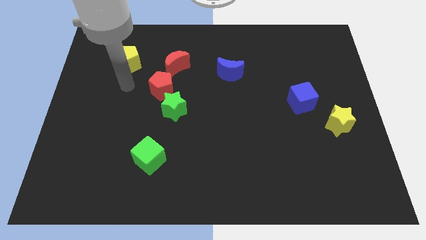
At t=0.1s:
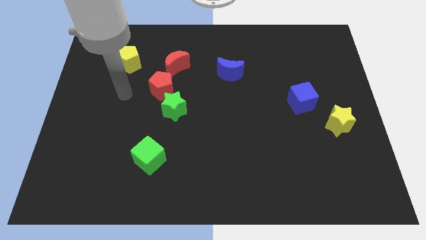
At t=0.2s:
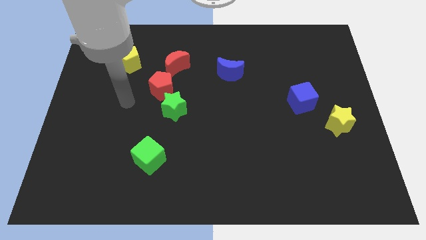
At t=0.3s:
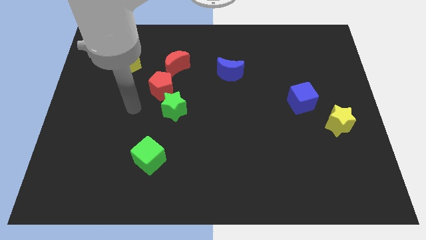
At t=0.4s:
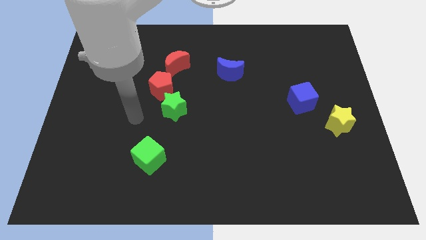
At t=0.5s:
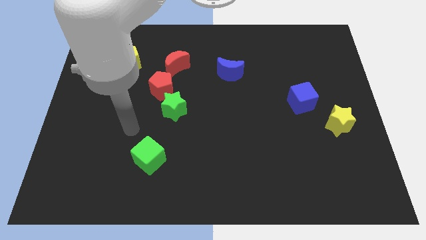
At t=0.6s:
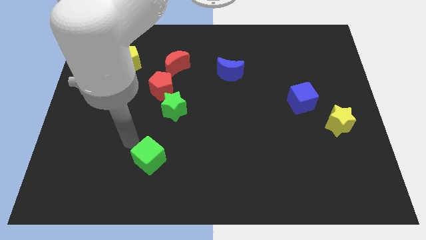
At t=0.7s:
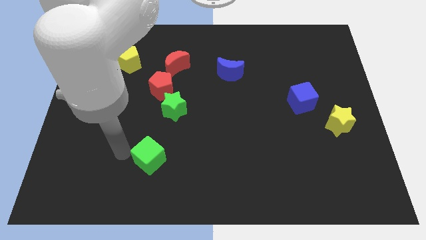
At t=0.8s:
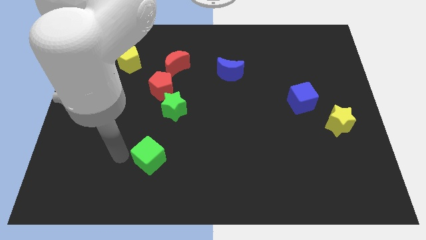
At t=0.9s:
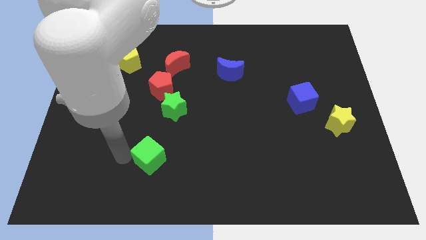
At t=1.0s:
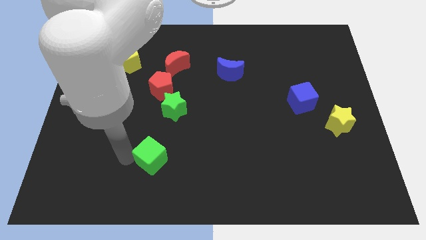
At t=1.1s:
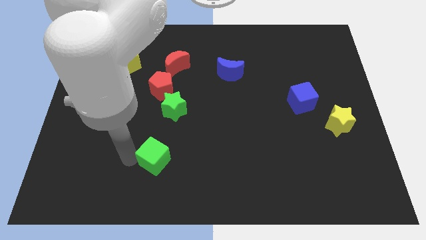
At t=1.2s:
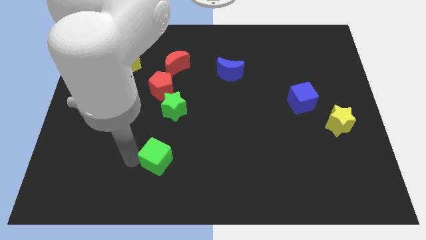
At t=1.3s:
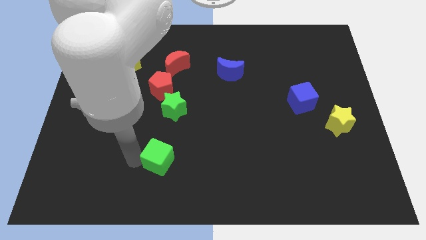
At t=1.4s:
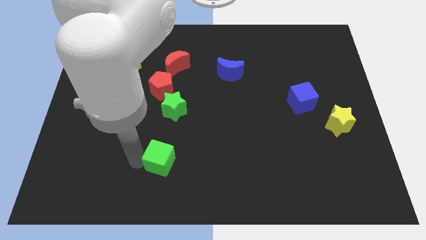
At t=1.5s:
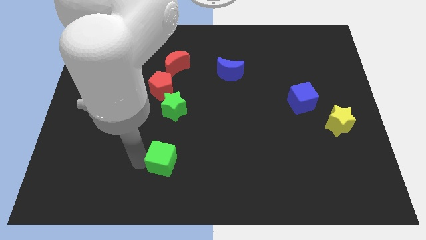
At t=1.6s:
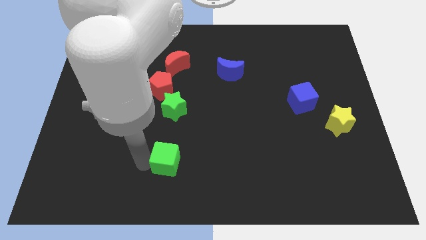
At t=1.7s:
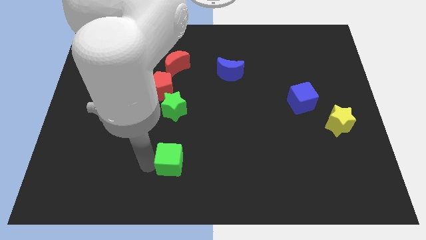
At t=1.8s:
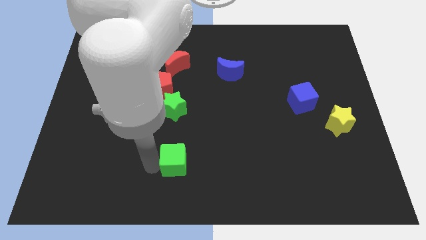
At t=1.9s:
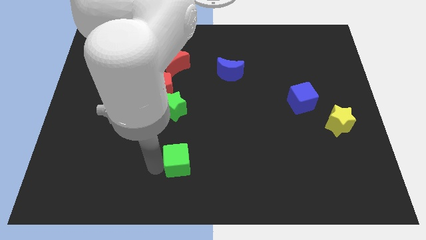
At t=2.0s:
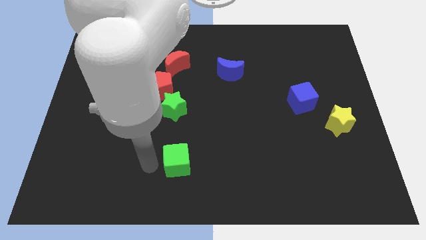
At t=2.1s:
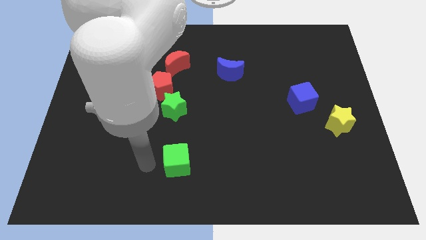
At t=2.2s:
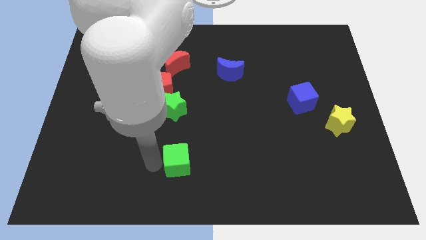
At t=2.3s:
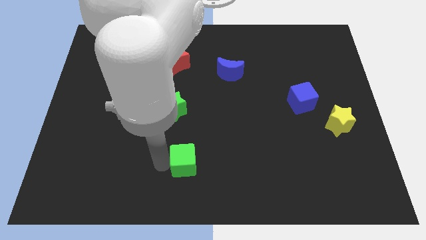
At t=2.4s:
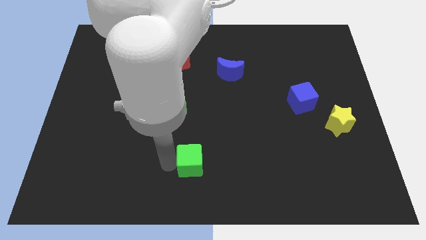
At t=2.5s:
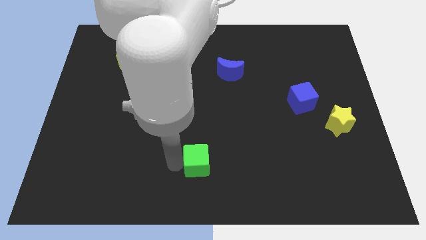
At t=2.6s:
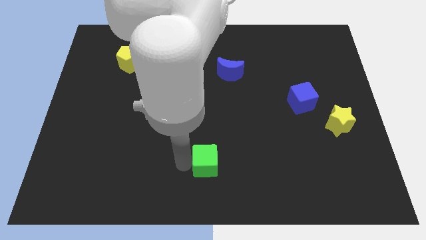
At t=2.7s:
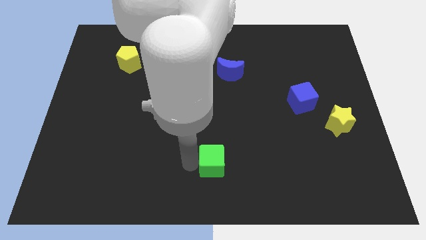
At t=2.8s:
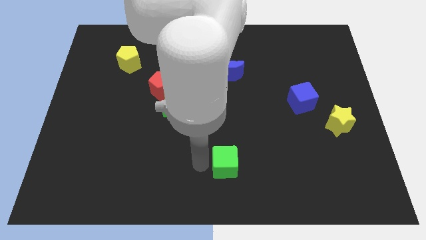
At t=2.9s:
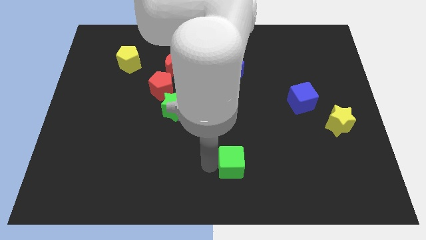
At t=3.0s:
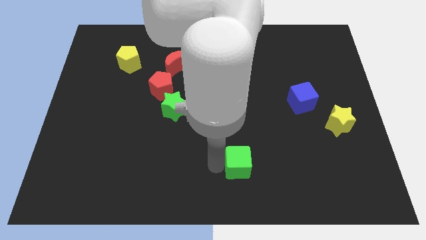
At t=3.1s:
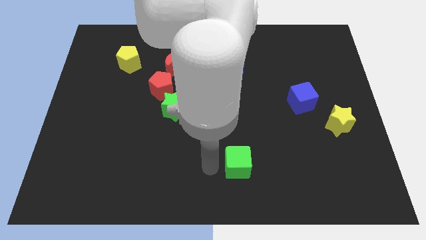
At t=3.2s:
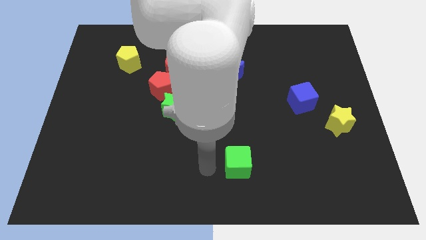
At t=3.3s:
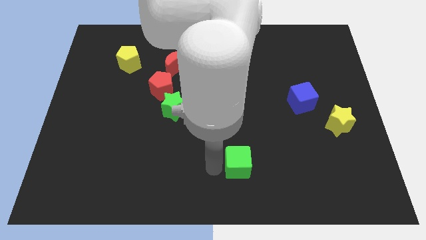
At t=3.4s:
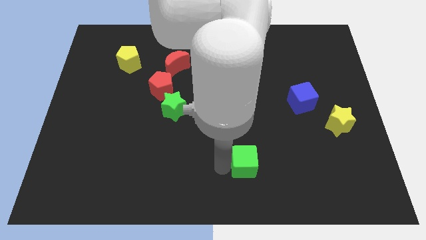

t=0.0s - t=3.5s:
move the green cube right

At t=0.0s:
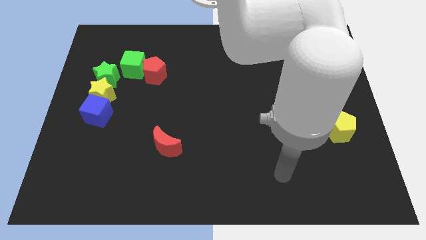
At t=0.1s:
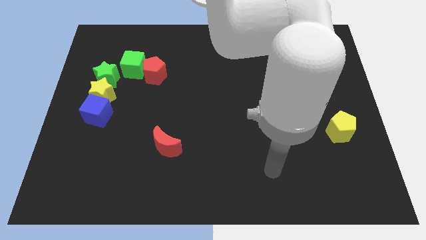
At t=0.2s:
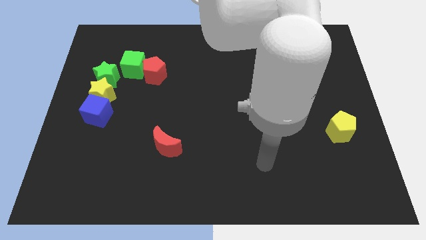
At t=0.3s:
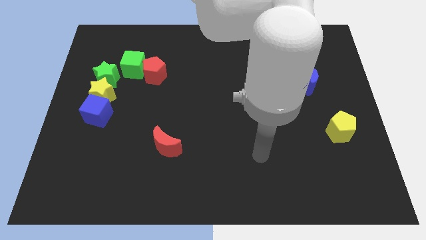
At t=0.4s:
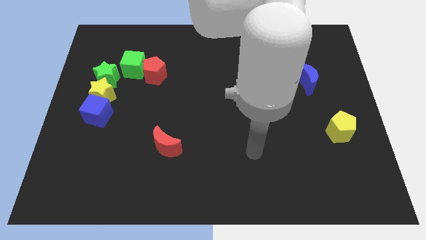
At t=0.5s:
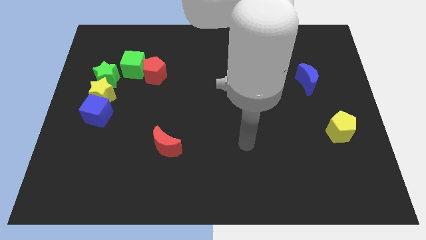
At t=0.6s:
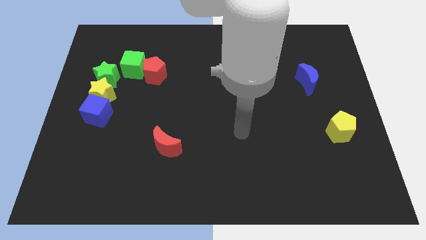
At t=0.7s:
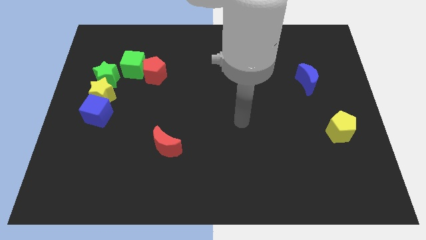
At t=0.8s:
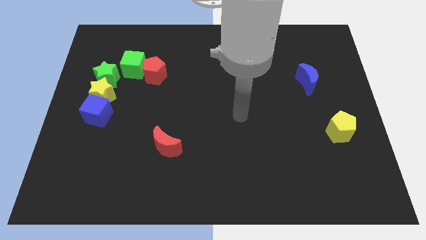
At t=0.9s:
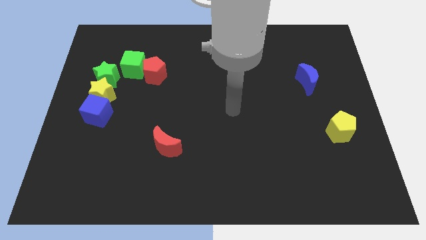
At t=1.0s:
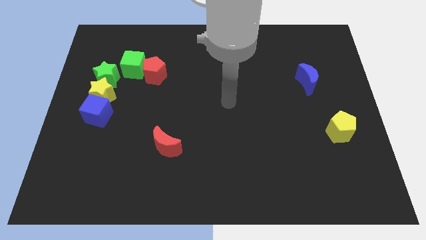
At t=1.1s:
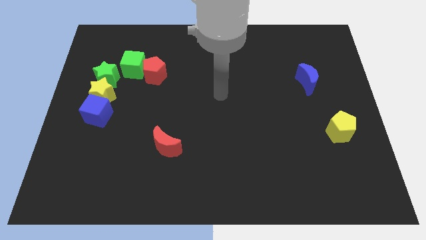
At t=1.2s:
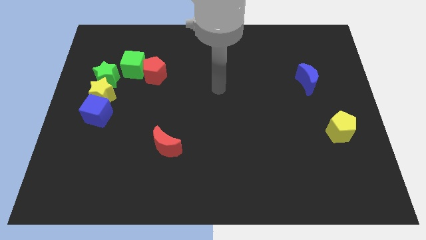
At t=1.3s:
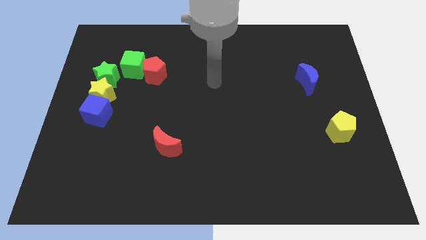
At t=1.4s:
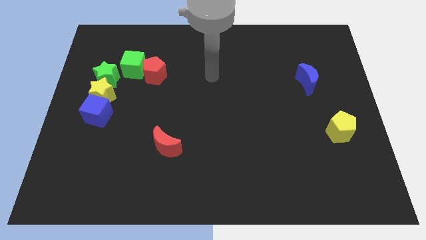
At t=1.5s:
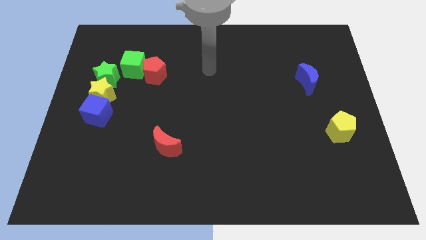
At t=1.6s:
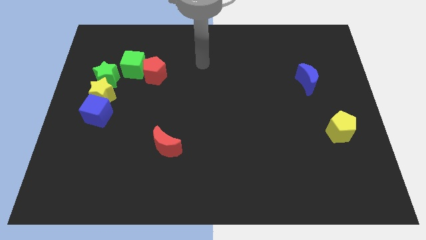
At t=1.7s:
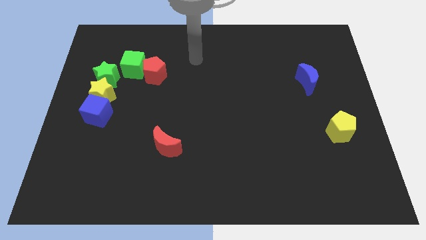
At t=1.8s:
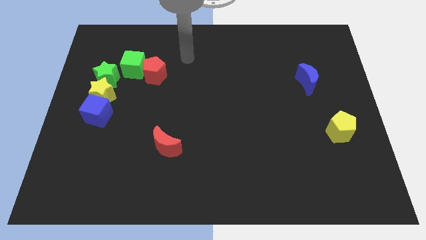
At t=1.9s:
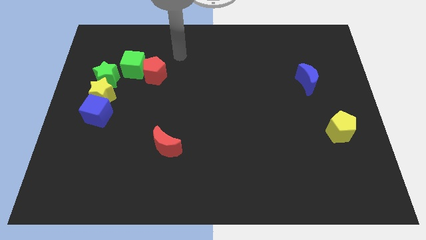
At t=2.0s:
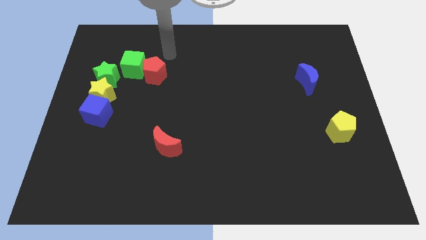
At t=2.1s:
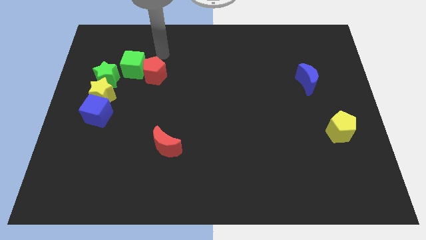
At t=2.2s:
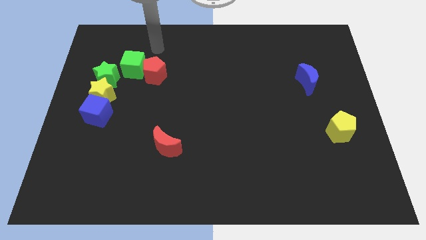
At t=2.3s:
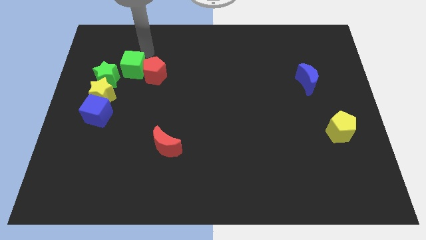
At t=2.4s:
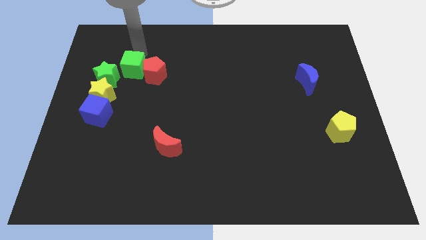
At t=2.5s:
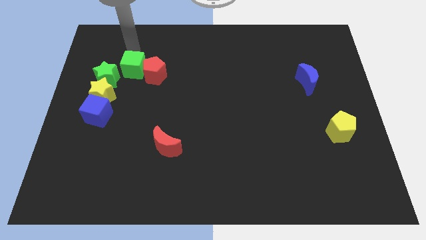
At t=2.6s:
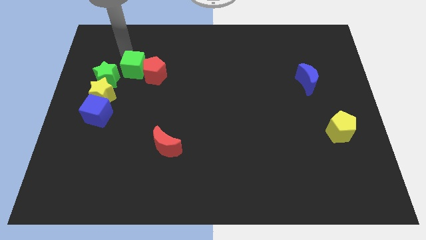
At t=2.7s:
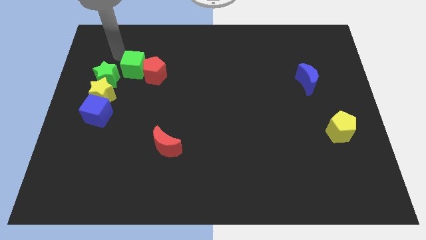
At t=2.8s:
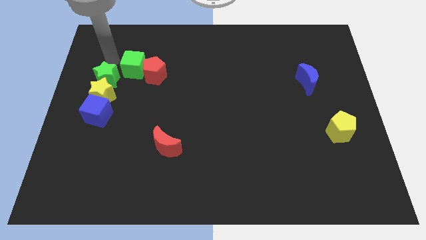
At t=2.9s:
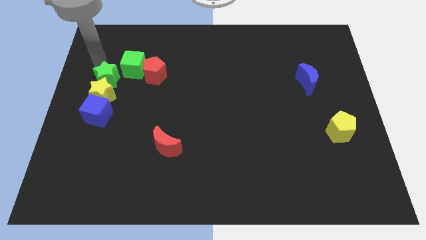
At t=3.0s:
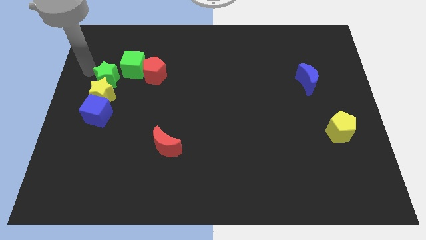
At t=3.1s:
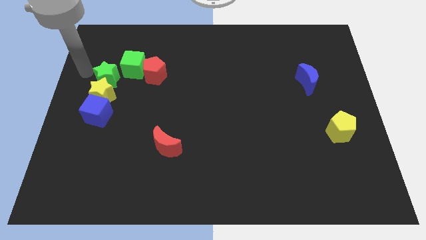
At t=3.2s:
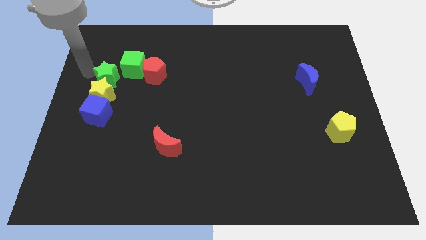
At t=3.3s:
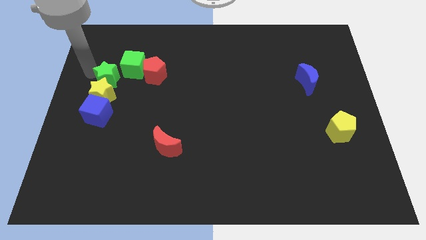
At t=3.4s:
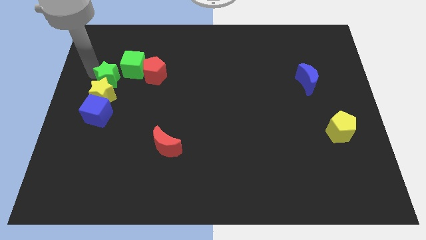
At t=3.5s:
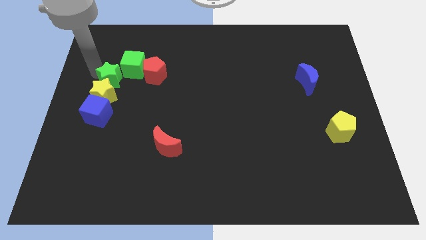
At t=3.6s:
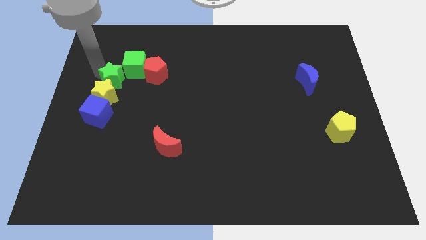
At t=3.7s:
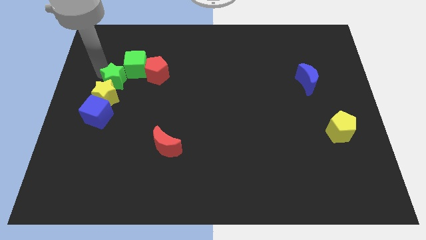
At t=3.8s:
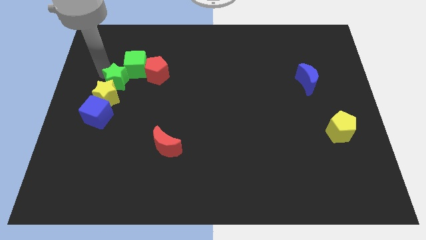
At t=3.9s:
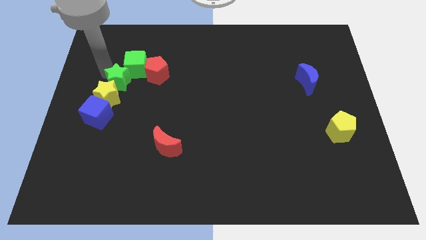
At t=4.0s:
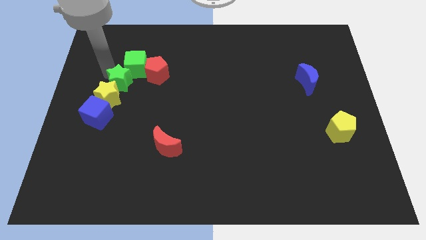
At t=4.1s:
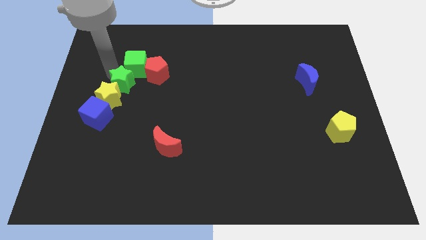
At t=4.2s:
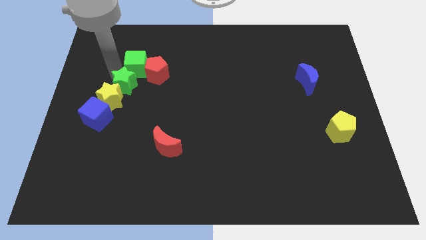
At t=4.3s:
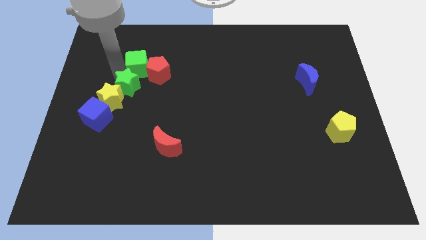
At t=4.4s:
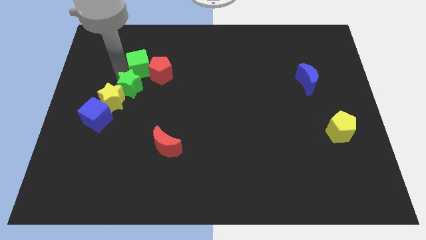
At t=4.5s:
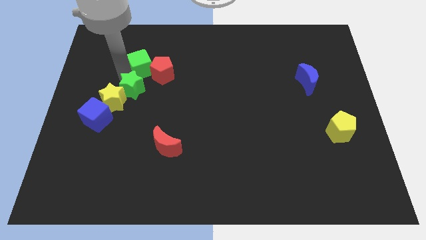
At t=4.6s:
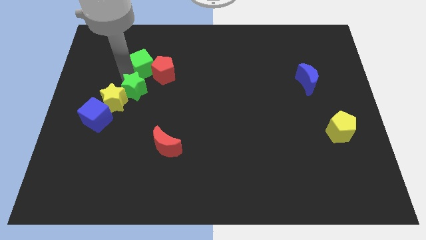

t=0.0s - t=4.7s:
slightly slide the green star right

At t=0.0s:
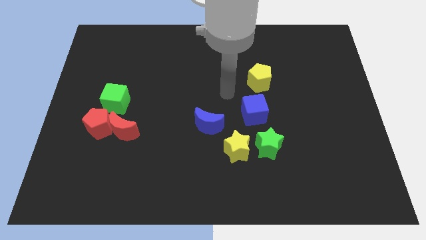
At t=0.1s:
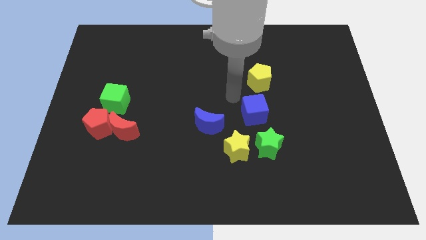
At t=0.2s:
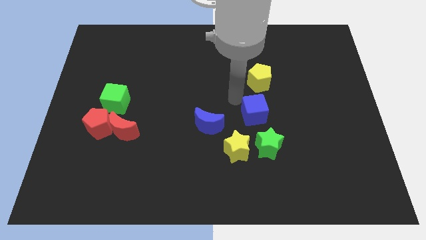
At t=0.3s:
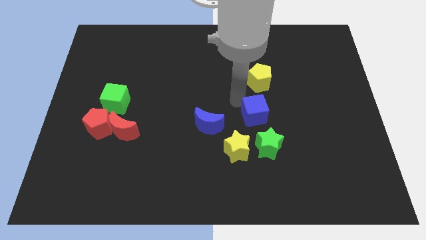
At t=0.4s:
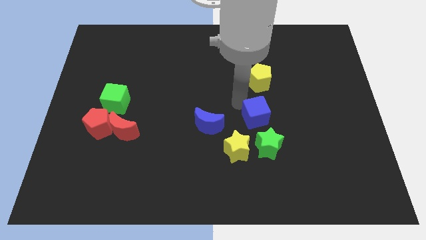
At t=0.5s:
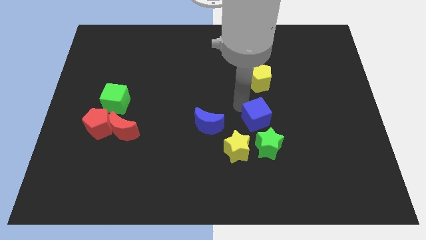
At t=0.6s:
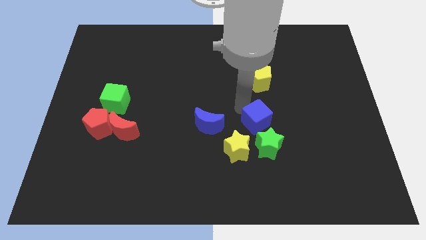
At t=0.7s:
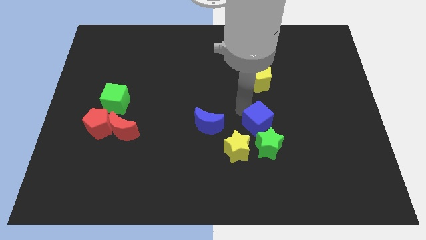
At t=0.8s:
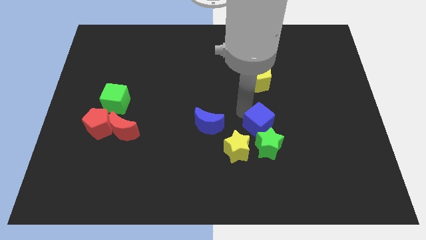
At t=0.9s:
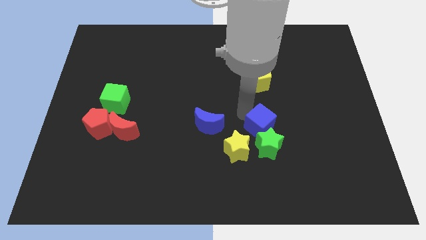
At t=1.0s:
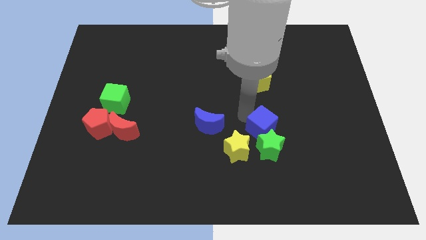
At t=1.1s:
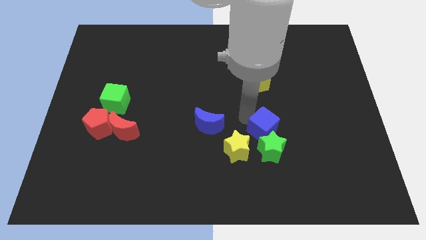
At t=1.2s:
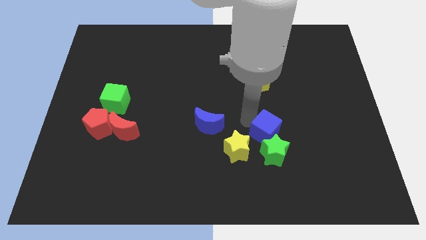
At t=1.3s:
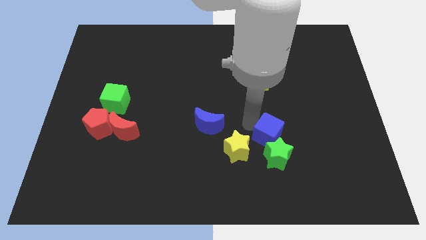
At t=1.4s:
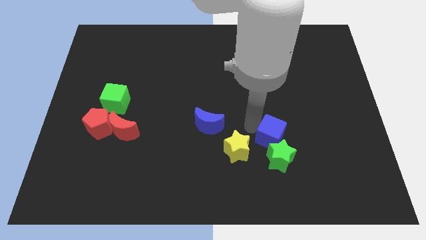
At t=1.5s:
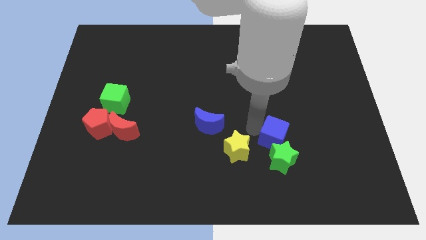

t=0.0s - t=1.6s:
slightly slide the blue cube down and right
